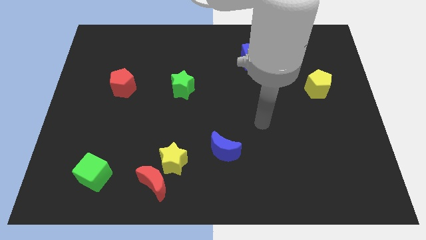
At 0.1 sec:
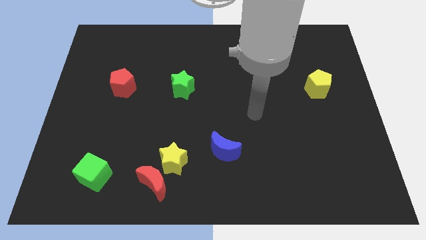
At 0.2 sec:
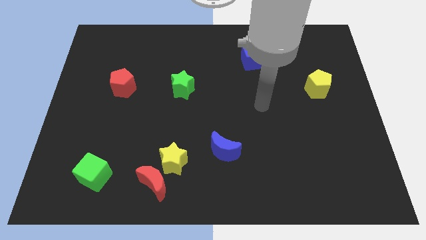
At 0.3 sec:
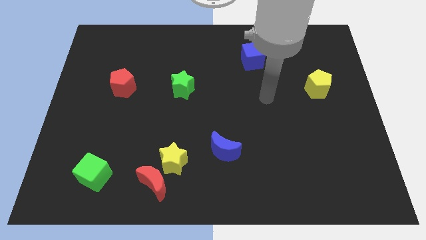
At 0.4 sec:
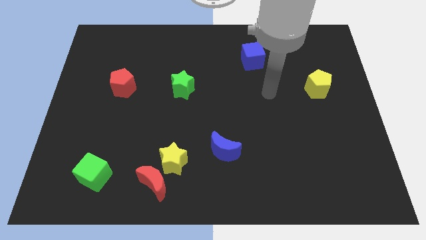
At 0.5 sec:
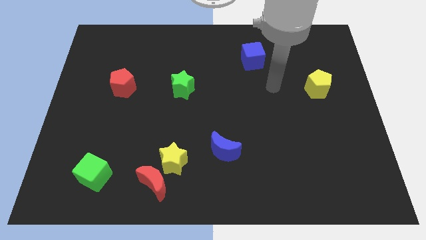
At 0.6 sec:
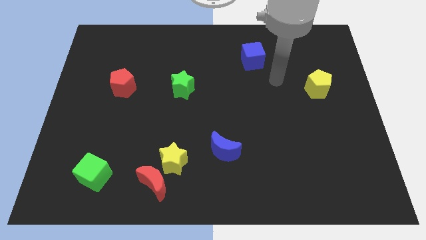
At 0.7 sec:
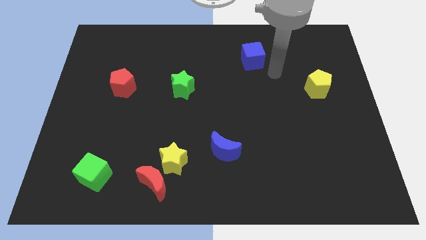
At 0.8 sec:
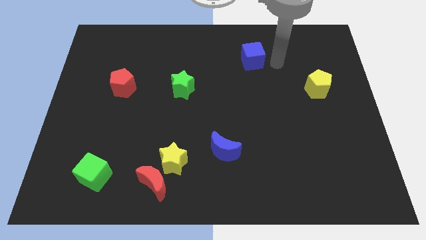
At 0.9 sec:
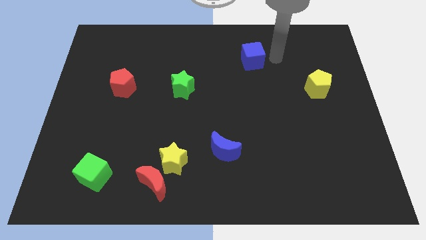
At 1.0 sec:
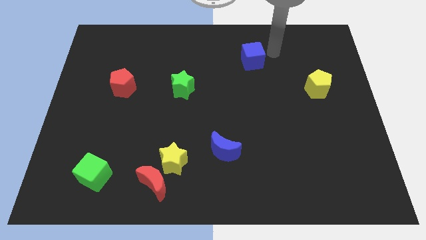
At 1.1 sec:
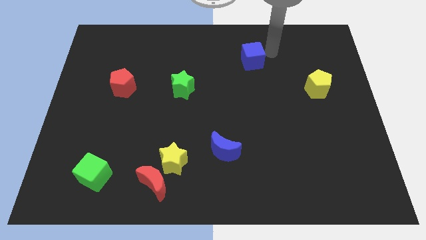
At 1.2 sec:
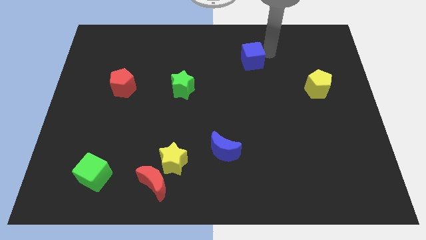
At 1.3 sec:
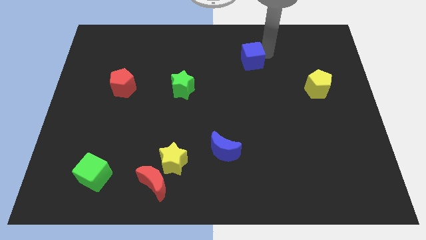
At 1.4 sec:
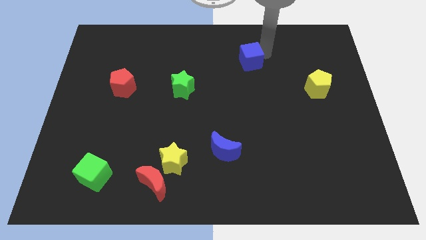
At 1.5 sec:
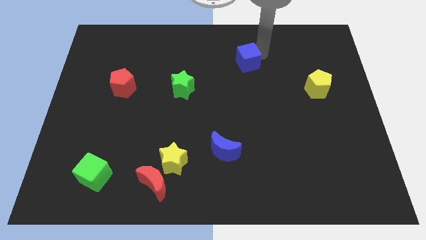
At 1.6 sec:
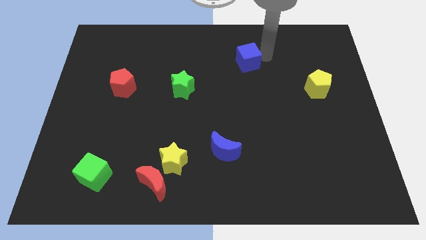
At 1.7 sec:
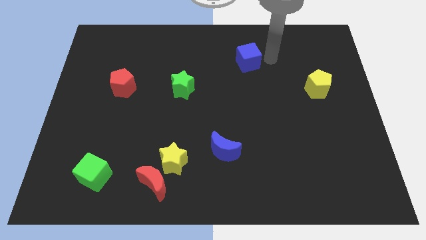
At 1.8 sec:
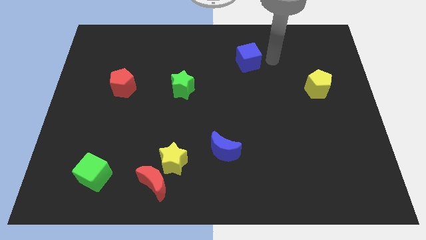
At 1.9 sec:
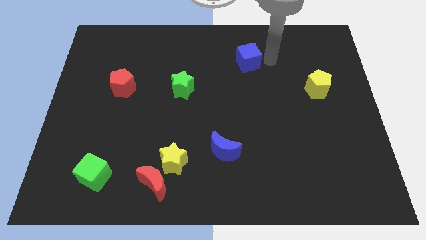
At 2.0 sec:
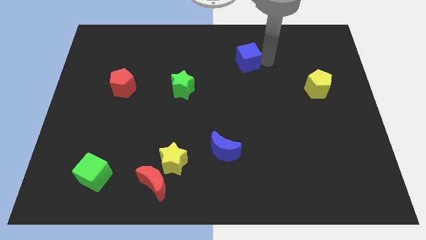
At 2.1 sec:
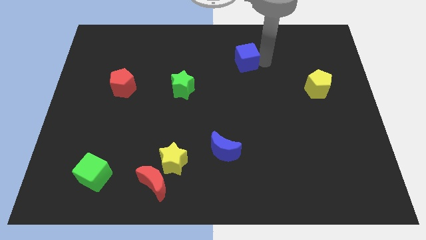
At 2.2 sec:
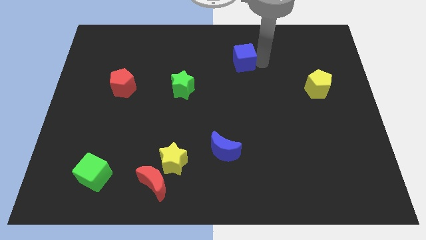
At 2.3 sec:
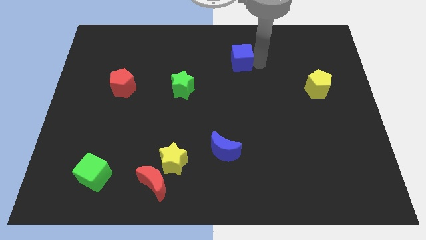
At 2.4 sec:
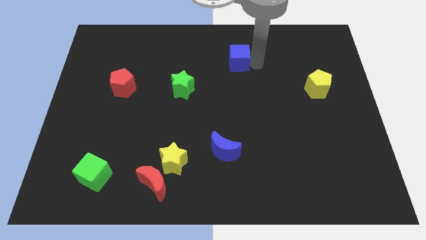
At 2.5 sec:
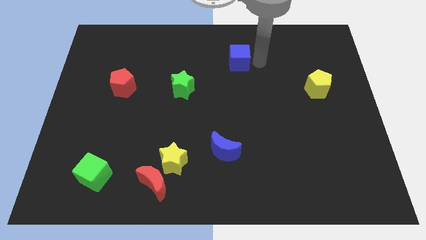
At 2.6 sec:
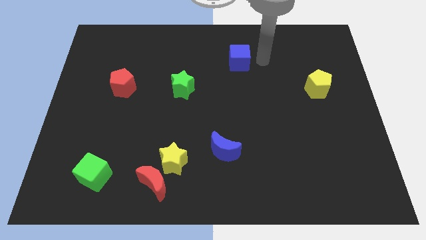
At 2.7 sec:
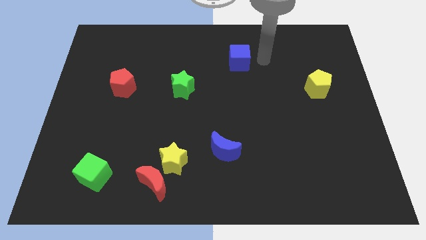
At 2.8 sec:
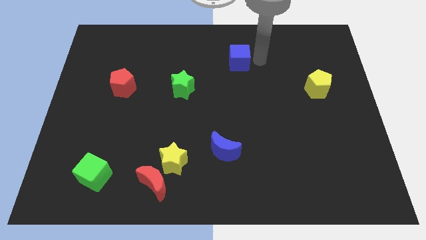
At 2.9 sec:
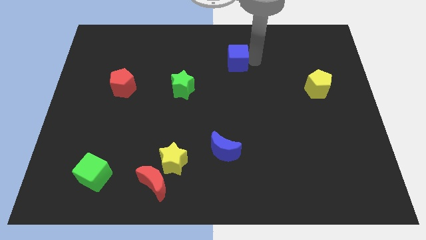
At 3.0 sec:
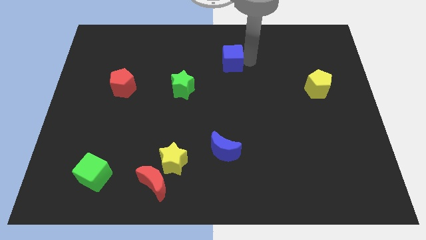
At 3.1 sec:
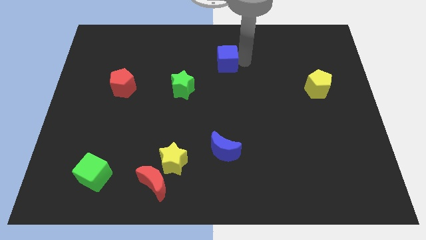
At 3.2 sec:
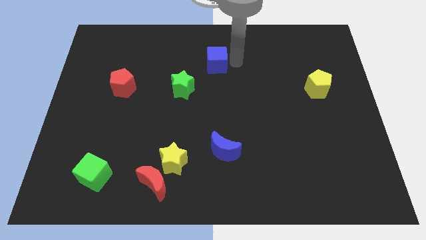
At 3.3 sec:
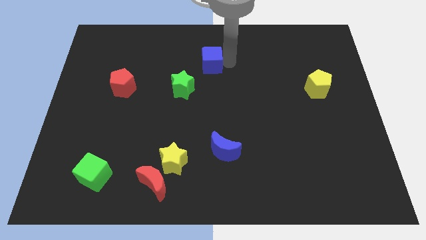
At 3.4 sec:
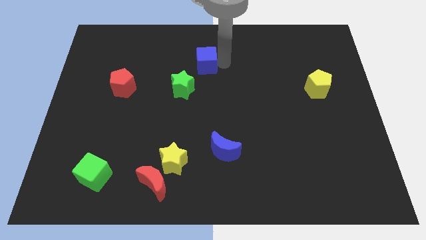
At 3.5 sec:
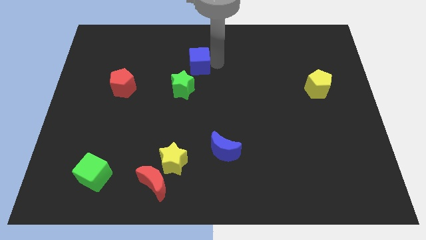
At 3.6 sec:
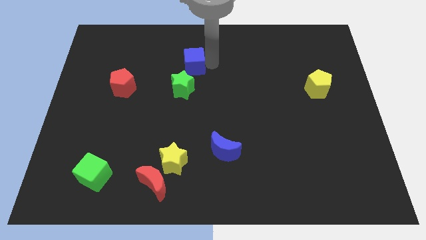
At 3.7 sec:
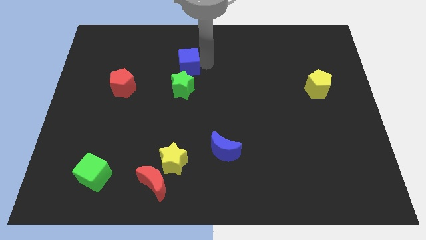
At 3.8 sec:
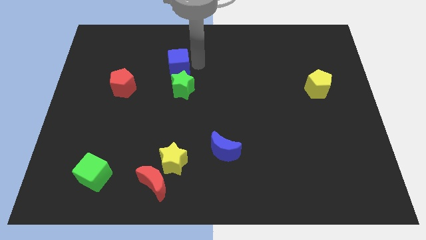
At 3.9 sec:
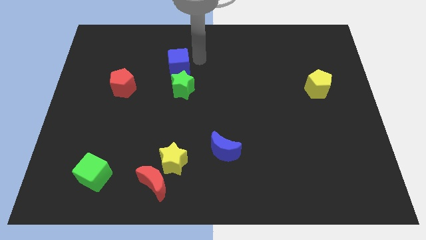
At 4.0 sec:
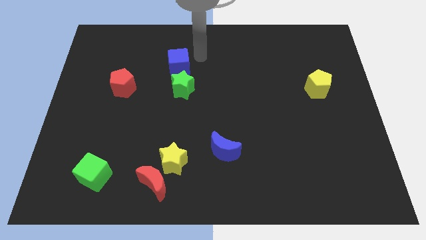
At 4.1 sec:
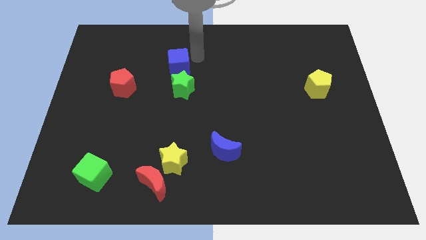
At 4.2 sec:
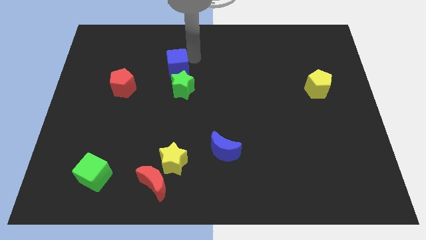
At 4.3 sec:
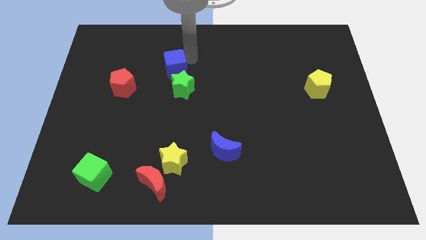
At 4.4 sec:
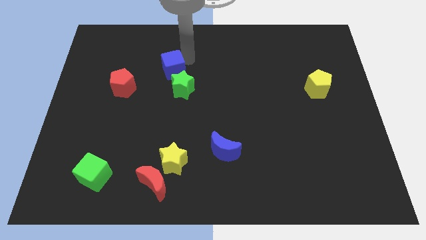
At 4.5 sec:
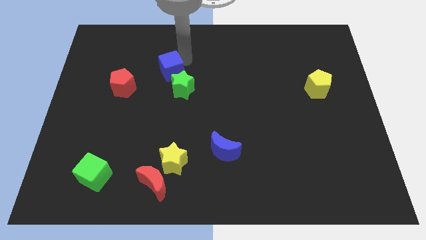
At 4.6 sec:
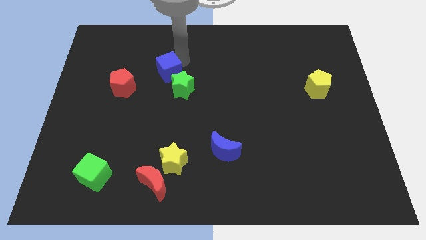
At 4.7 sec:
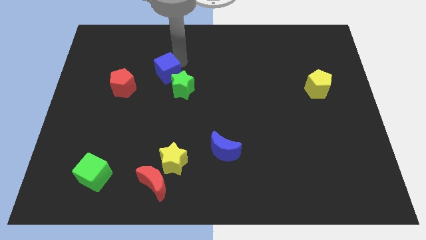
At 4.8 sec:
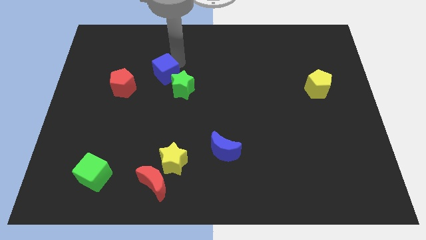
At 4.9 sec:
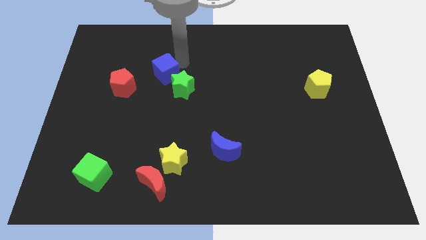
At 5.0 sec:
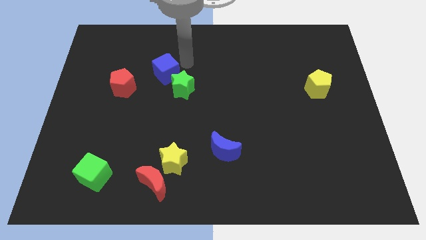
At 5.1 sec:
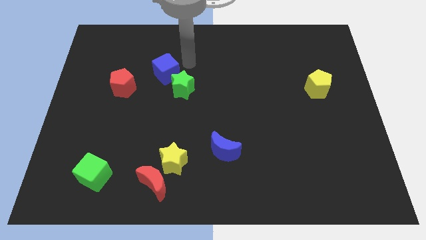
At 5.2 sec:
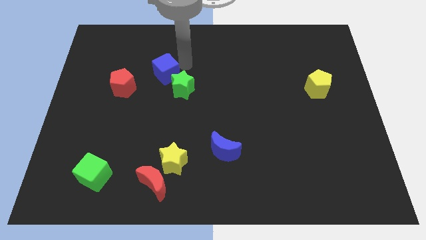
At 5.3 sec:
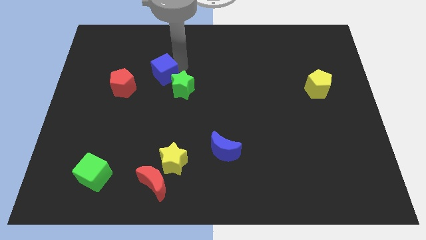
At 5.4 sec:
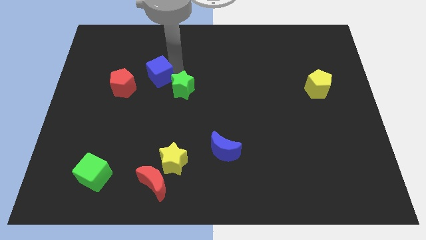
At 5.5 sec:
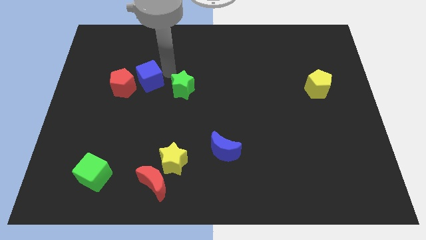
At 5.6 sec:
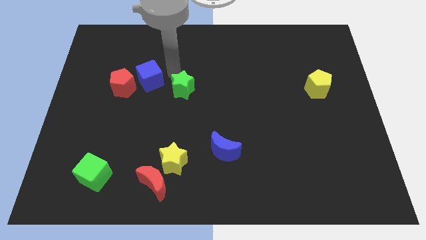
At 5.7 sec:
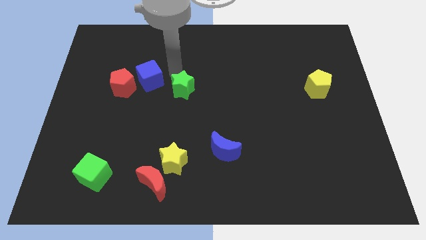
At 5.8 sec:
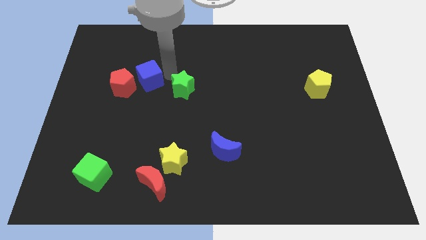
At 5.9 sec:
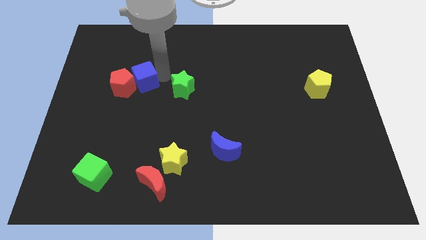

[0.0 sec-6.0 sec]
put the blue cube close to the red pentagon
